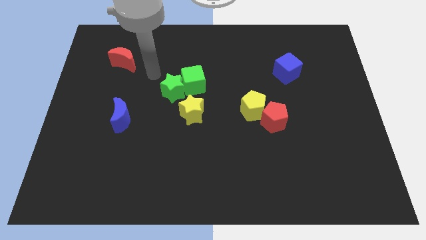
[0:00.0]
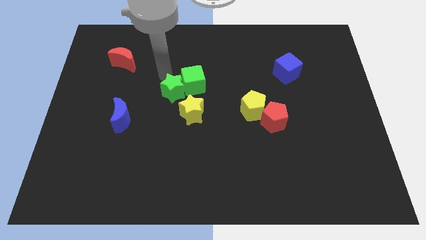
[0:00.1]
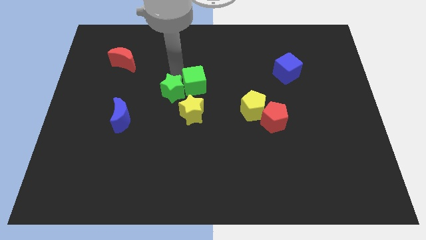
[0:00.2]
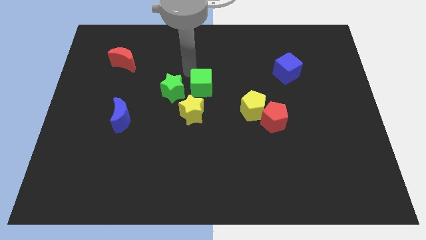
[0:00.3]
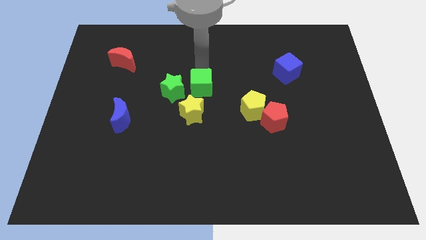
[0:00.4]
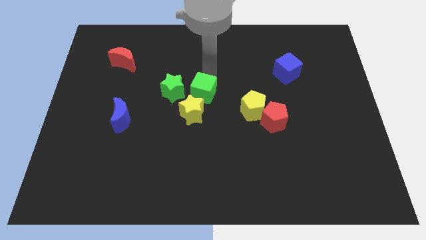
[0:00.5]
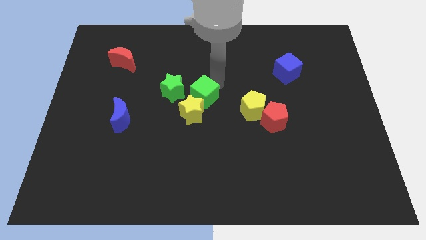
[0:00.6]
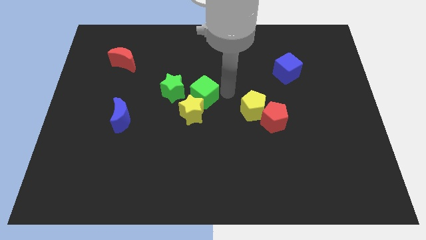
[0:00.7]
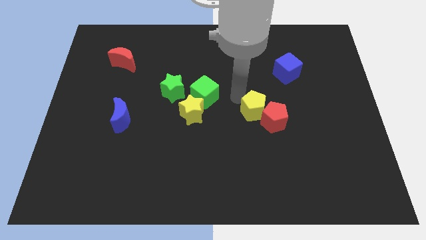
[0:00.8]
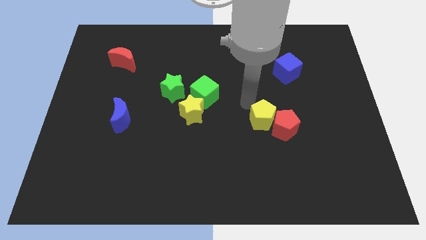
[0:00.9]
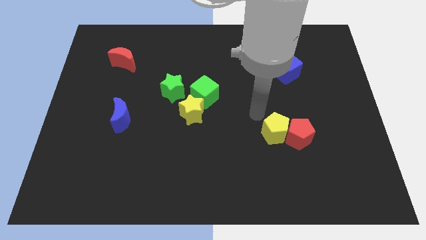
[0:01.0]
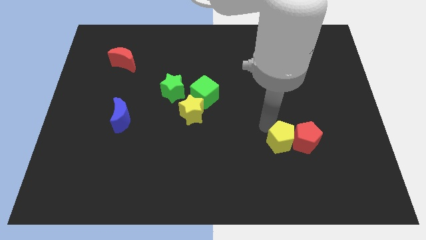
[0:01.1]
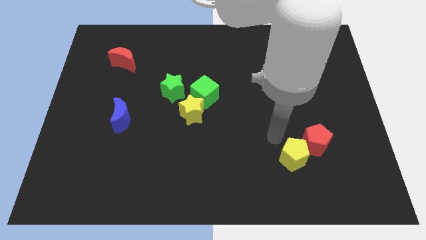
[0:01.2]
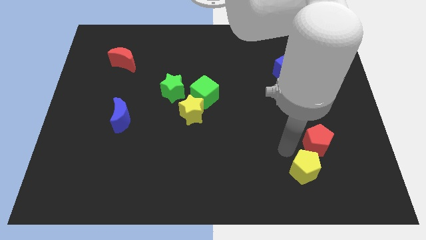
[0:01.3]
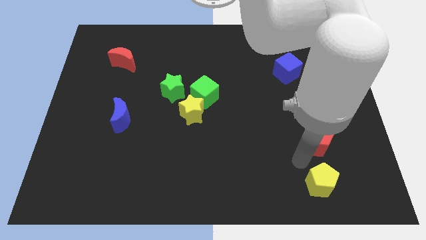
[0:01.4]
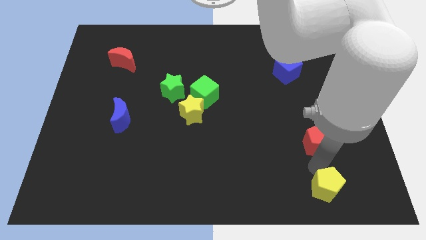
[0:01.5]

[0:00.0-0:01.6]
separate the red pentagon from the yellow pentagon

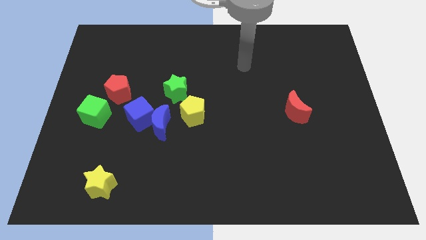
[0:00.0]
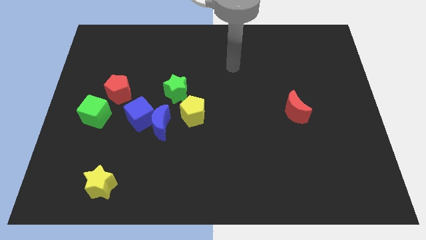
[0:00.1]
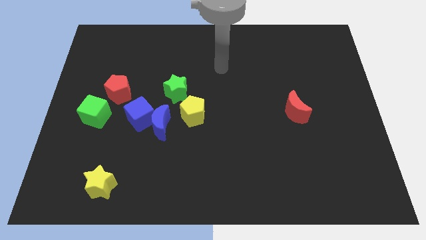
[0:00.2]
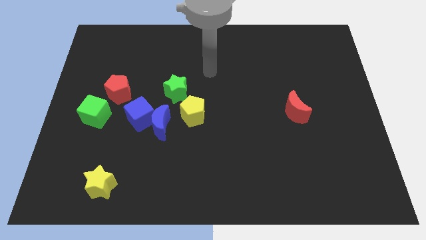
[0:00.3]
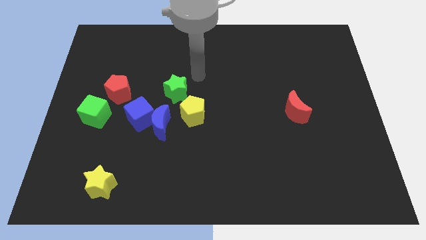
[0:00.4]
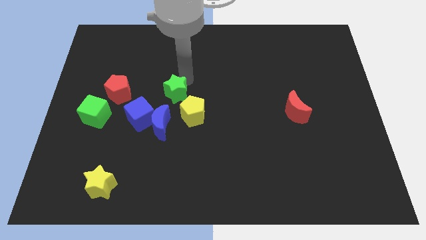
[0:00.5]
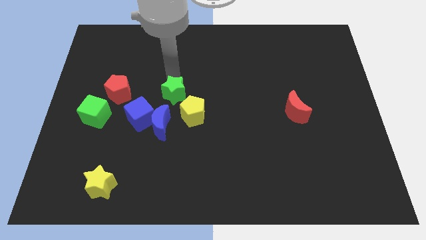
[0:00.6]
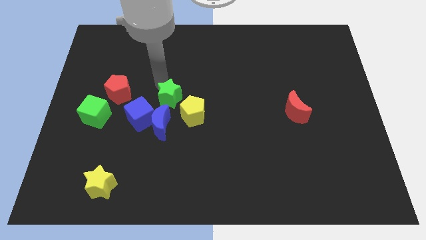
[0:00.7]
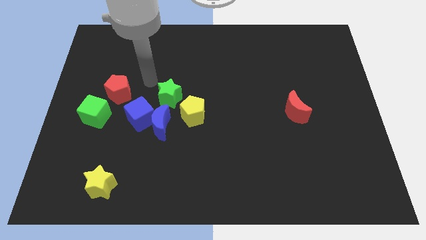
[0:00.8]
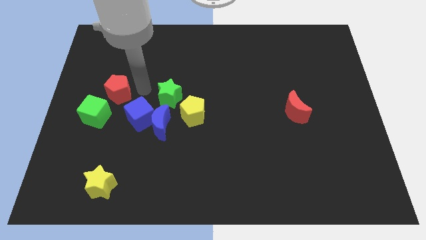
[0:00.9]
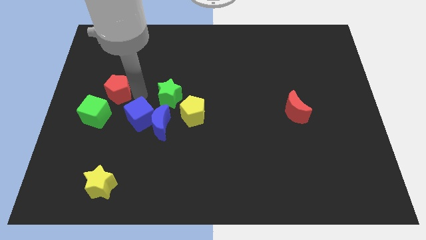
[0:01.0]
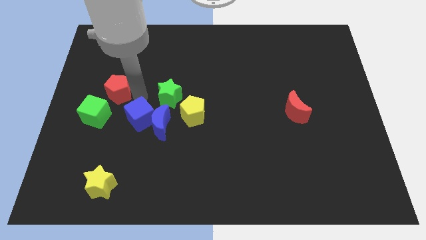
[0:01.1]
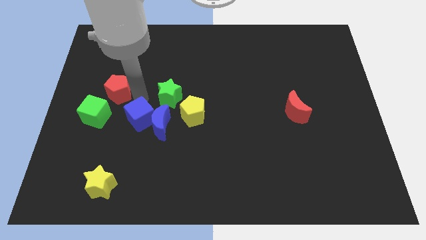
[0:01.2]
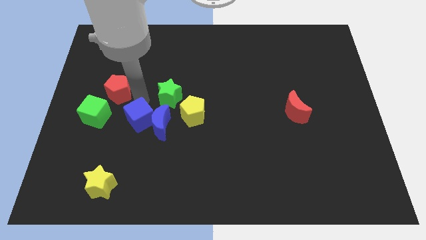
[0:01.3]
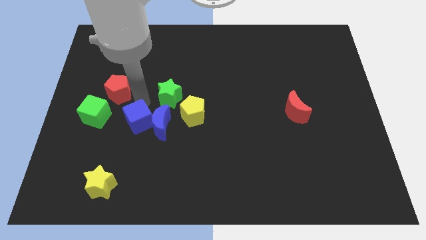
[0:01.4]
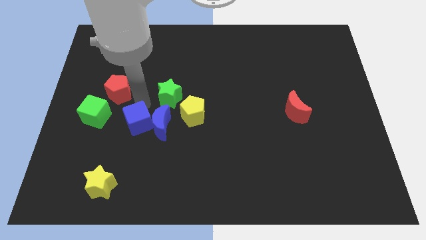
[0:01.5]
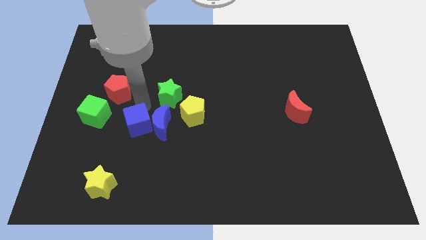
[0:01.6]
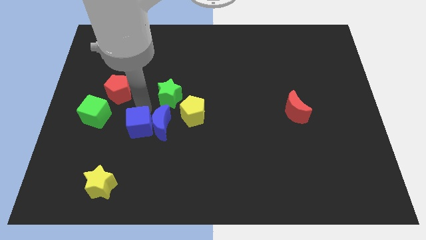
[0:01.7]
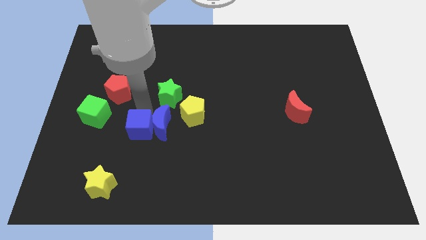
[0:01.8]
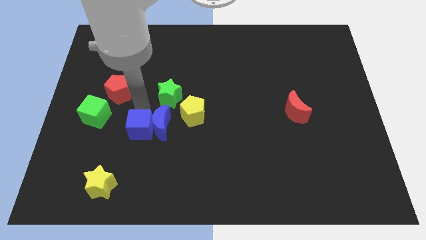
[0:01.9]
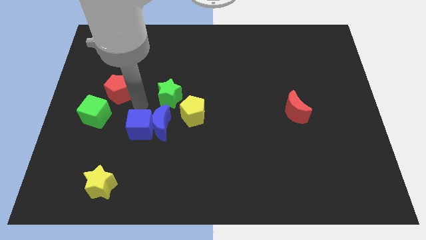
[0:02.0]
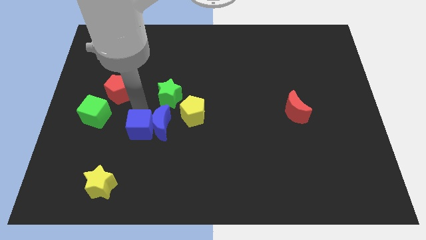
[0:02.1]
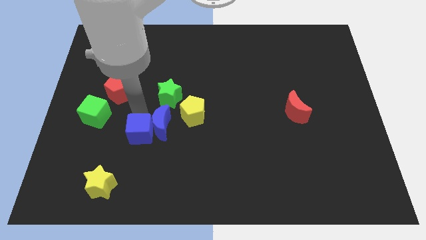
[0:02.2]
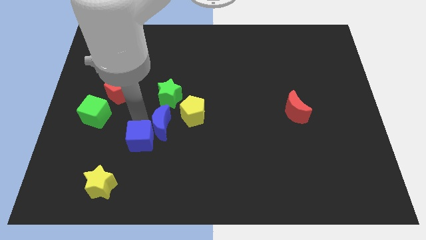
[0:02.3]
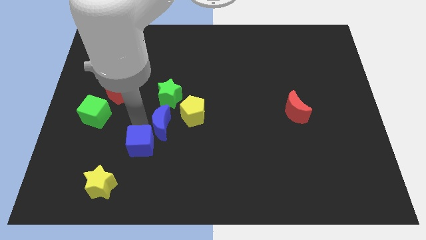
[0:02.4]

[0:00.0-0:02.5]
pull the blue cube apart from the blue moon and red pentagon

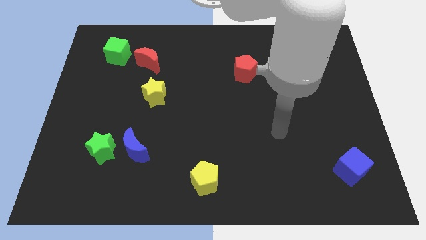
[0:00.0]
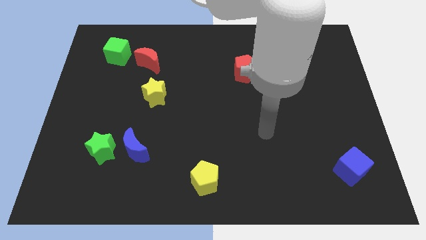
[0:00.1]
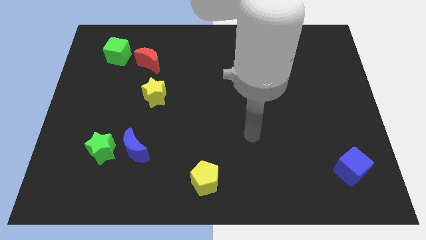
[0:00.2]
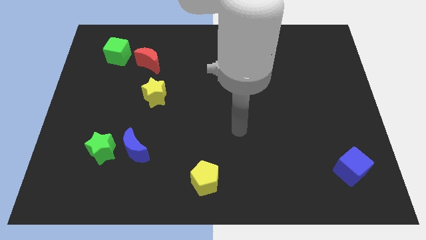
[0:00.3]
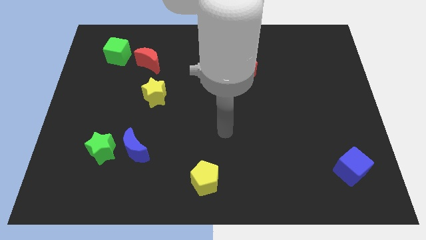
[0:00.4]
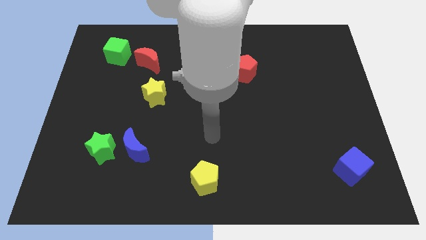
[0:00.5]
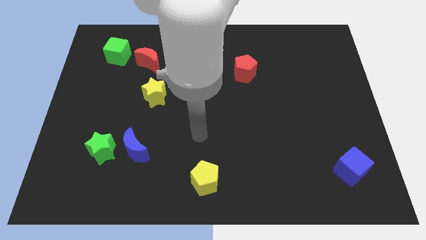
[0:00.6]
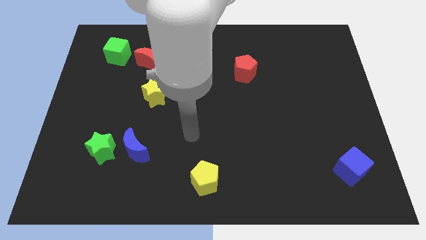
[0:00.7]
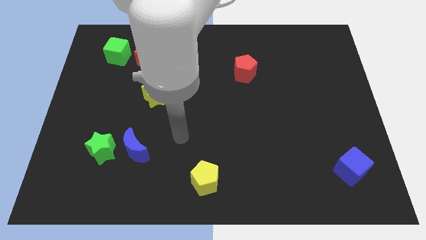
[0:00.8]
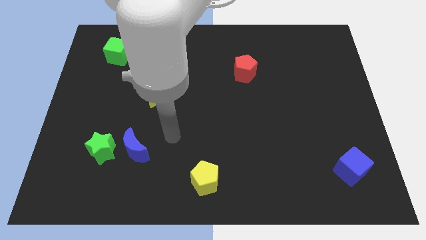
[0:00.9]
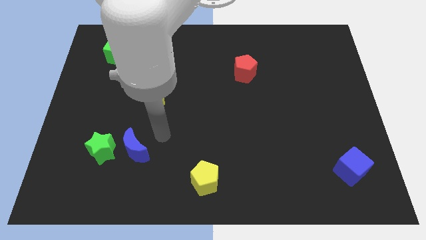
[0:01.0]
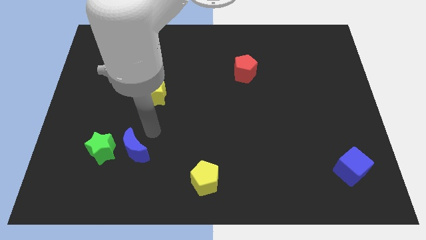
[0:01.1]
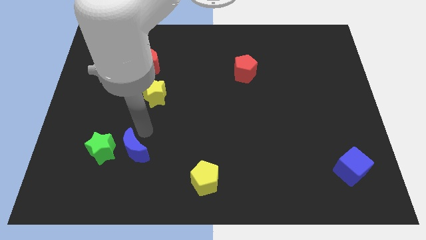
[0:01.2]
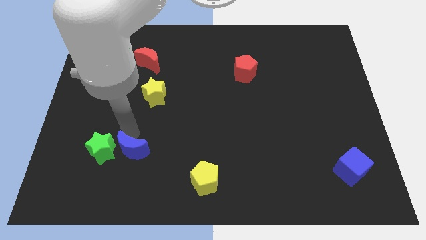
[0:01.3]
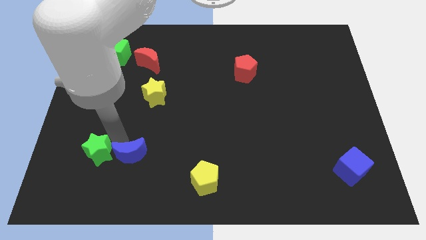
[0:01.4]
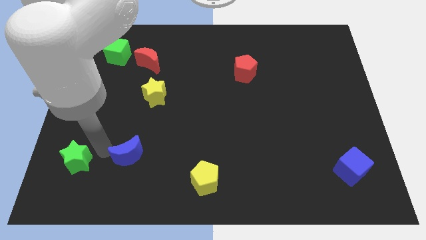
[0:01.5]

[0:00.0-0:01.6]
pull the blue moon apart from the green star

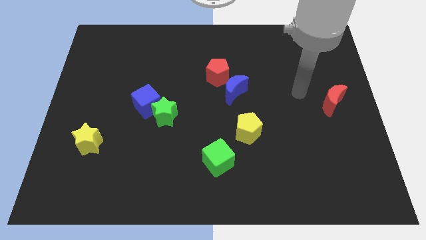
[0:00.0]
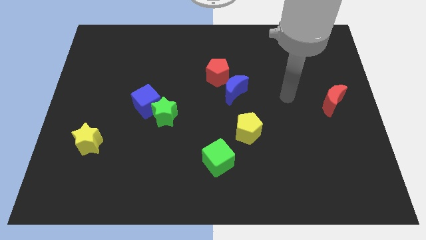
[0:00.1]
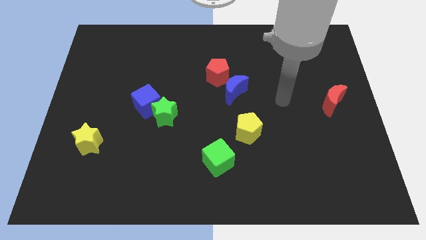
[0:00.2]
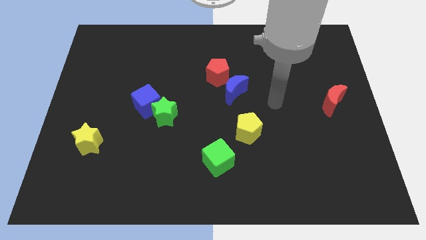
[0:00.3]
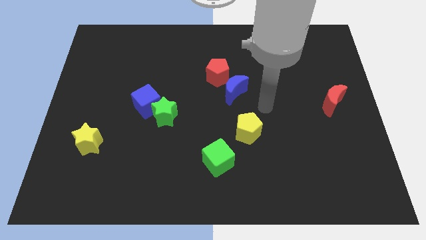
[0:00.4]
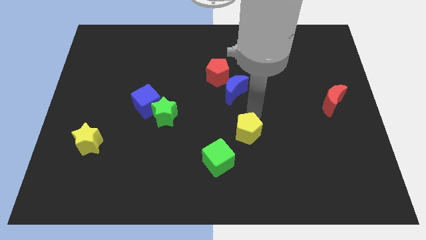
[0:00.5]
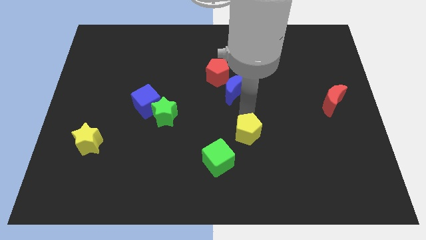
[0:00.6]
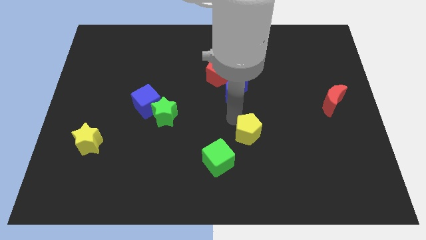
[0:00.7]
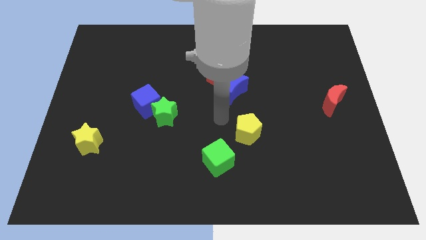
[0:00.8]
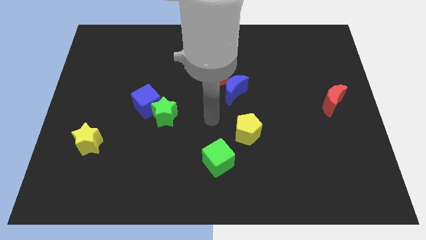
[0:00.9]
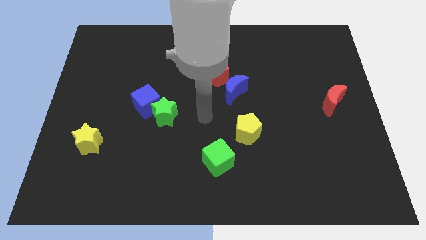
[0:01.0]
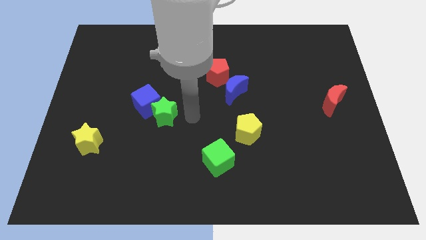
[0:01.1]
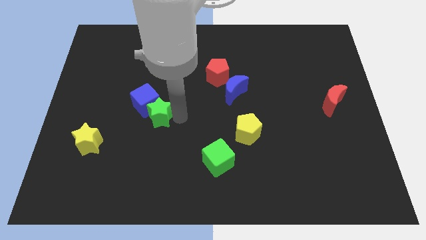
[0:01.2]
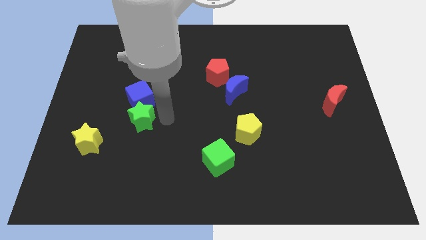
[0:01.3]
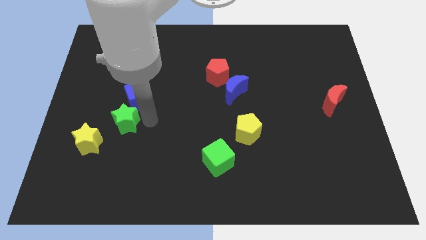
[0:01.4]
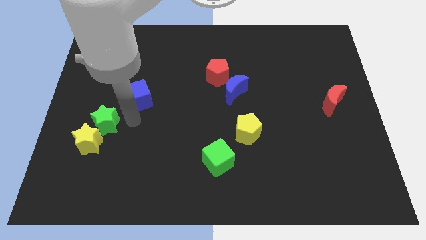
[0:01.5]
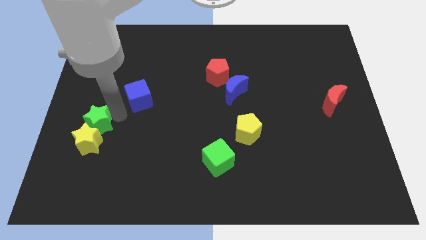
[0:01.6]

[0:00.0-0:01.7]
pull the blue cube apart from the green star

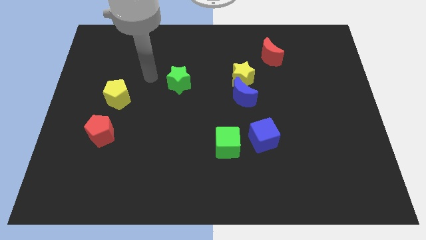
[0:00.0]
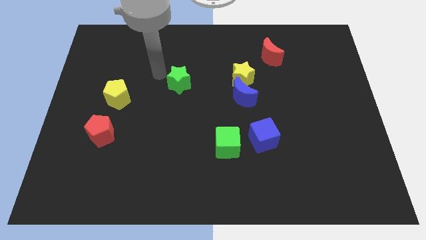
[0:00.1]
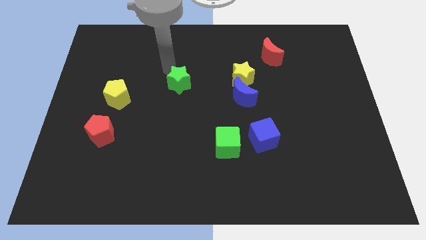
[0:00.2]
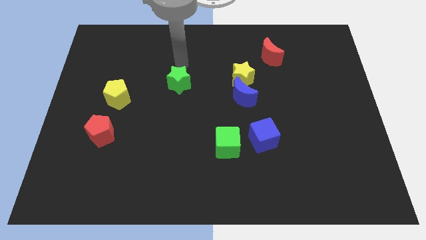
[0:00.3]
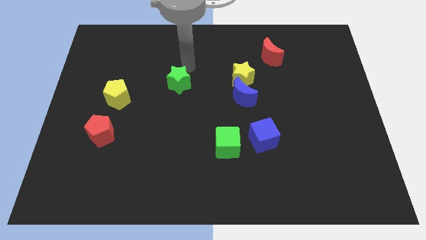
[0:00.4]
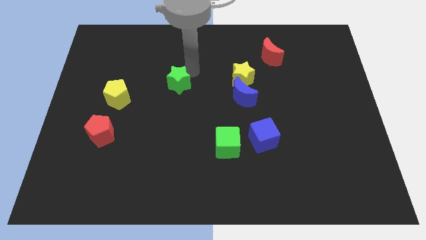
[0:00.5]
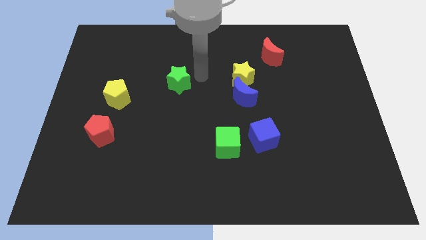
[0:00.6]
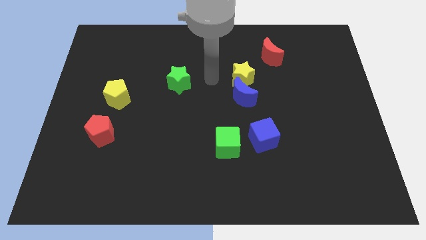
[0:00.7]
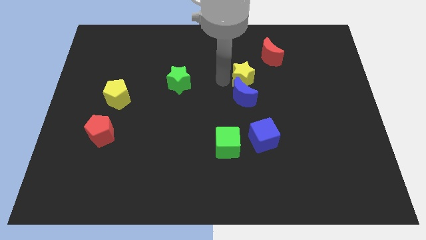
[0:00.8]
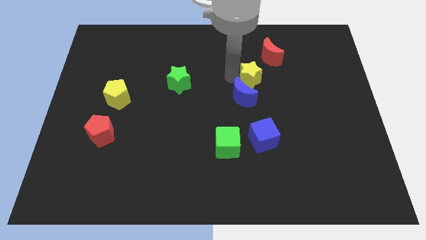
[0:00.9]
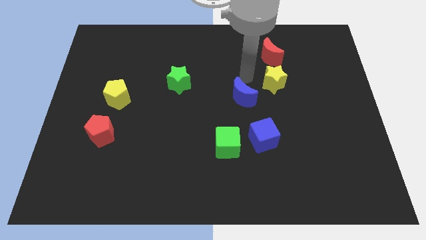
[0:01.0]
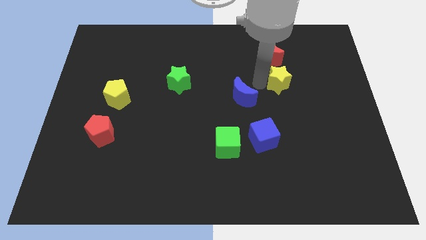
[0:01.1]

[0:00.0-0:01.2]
separate the blue moon from the yellow star

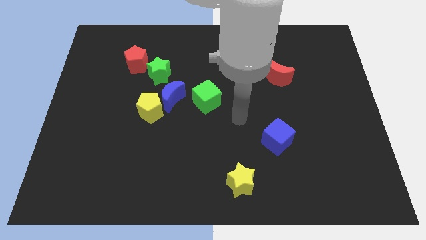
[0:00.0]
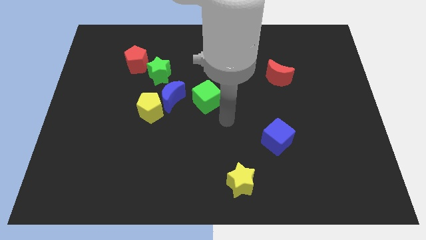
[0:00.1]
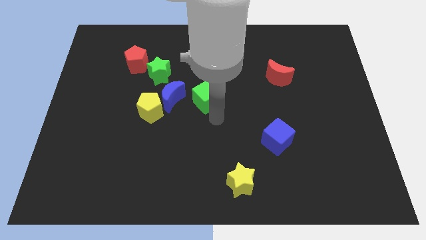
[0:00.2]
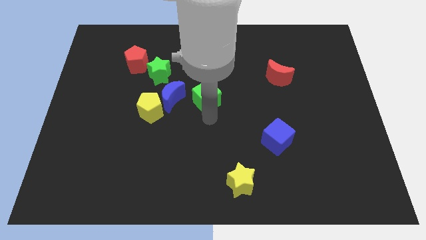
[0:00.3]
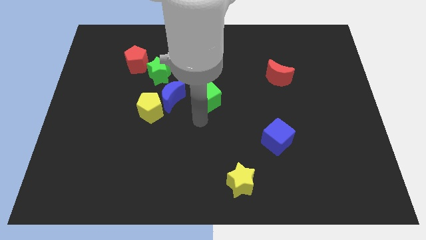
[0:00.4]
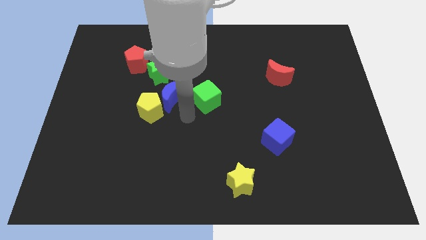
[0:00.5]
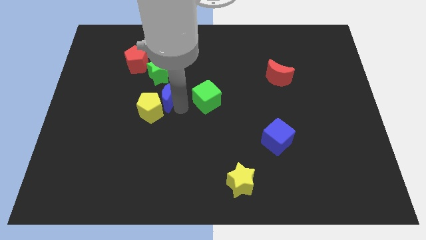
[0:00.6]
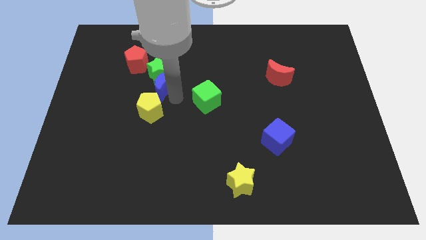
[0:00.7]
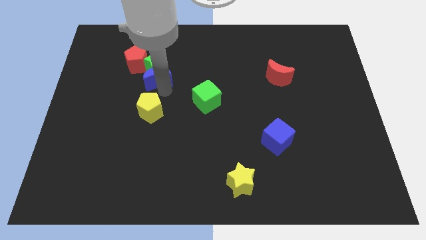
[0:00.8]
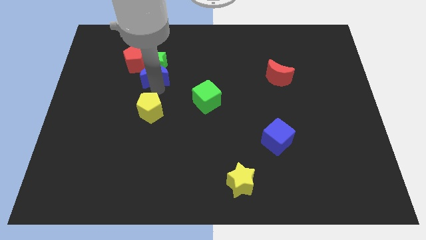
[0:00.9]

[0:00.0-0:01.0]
pull the yellow pentagon apart from the blue moon
